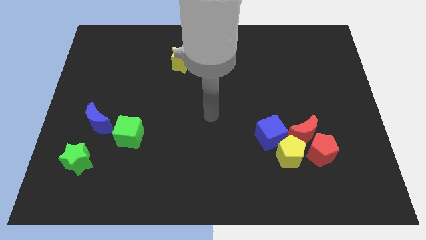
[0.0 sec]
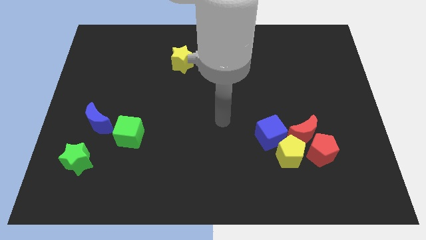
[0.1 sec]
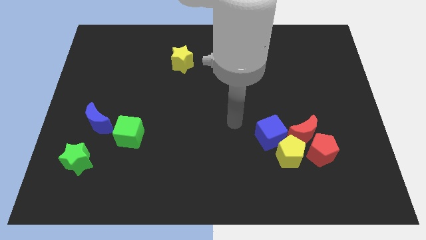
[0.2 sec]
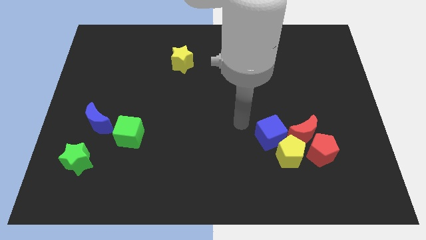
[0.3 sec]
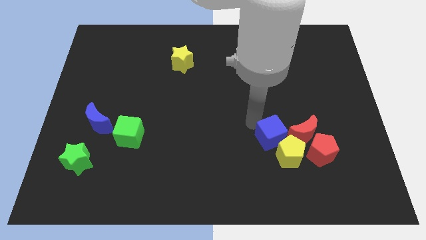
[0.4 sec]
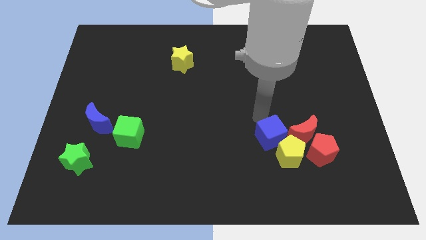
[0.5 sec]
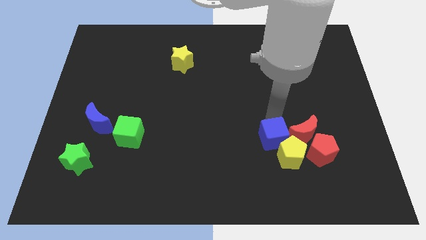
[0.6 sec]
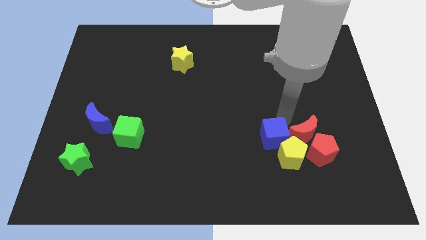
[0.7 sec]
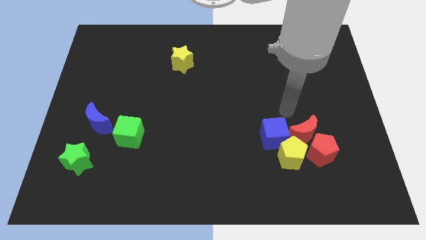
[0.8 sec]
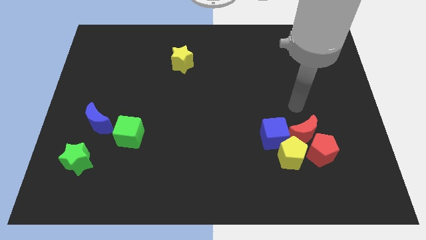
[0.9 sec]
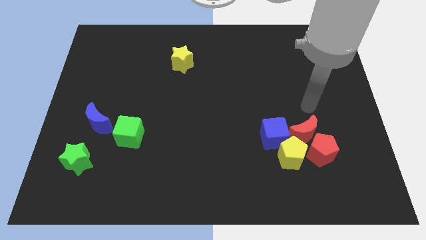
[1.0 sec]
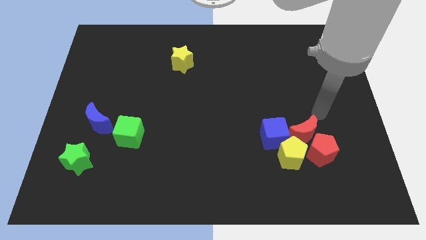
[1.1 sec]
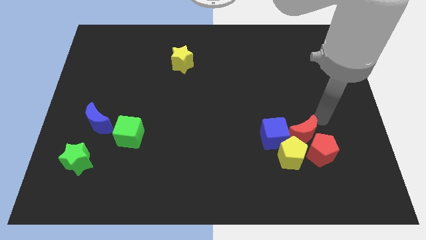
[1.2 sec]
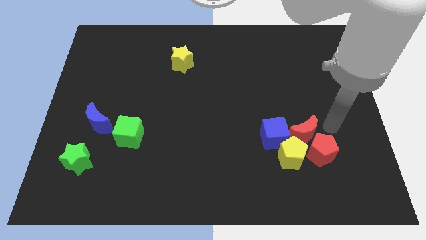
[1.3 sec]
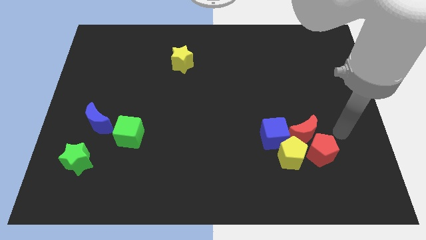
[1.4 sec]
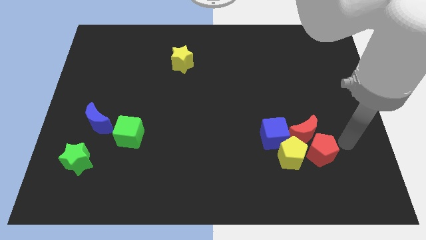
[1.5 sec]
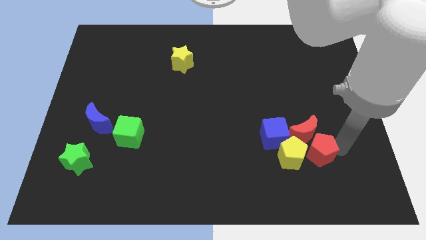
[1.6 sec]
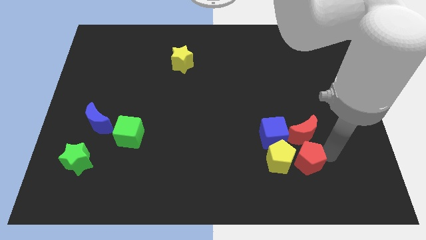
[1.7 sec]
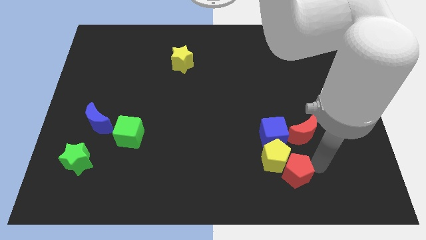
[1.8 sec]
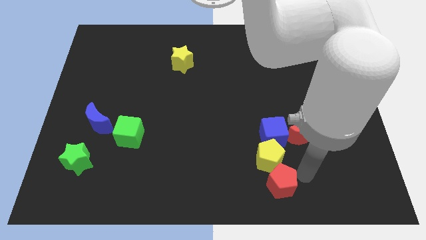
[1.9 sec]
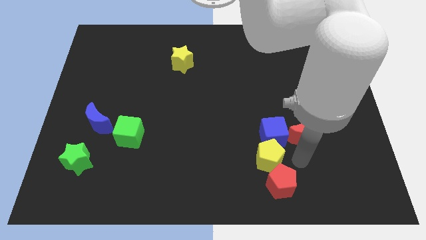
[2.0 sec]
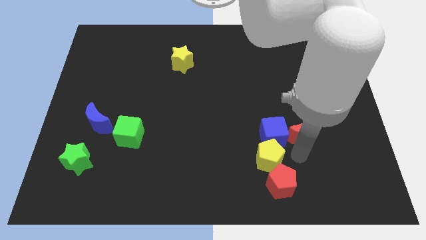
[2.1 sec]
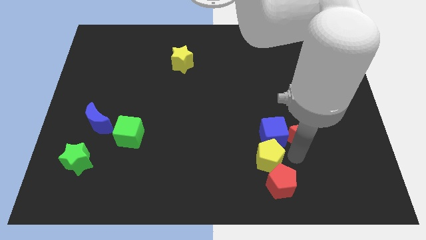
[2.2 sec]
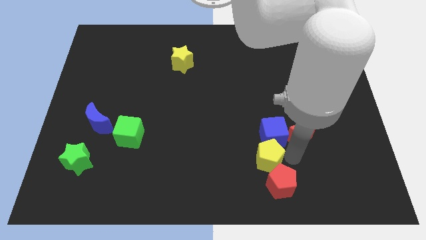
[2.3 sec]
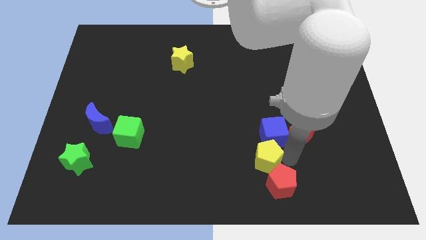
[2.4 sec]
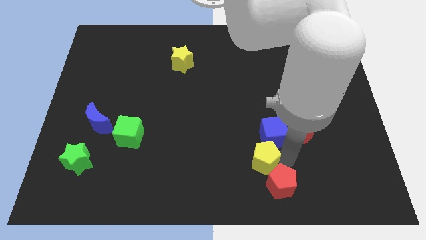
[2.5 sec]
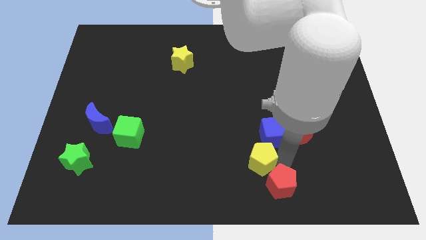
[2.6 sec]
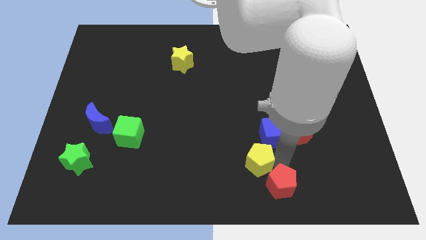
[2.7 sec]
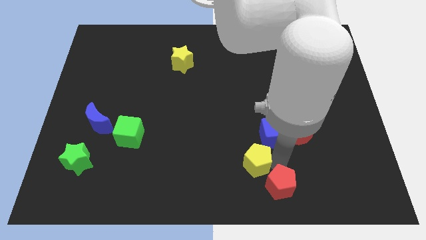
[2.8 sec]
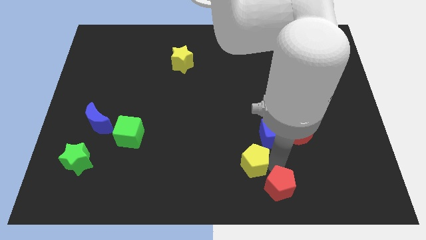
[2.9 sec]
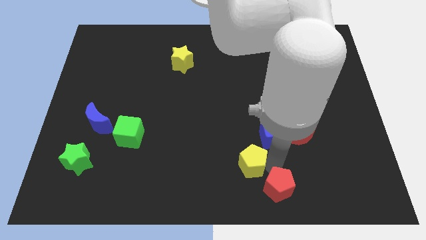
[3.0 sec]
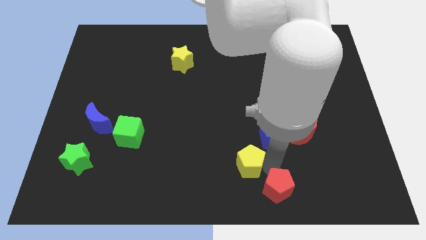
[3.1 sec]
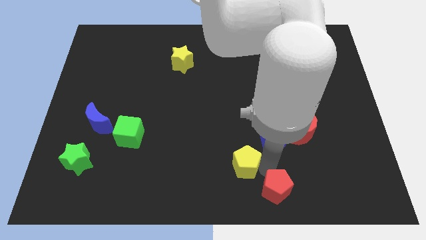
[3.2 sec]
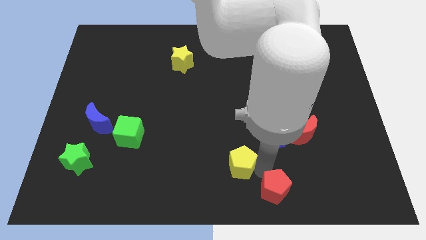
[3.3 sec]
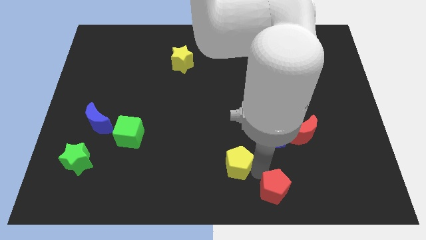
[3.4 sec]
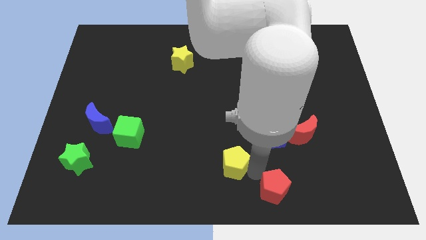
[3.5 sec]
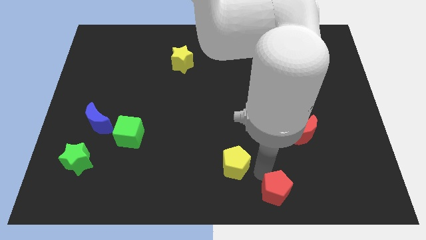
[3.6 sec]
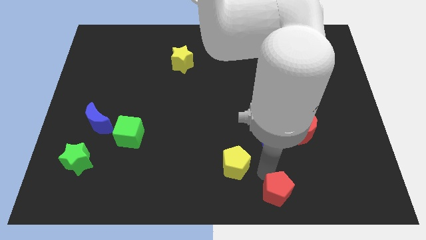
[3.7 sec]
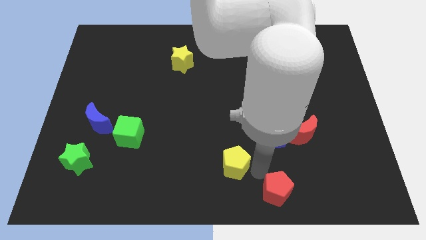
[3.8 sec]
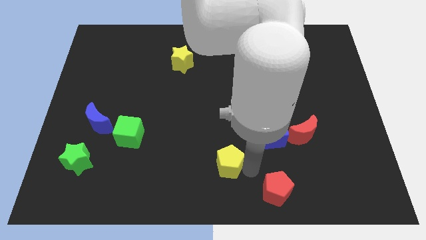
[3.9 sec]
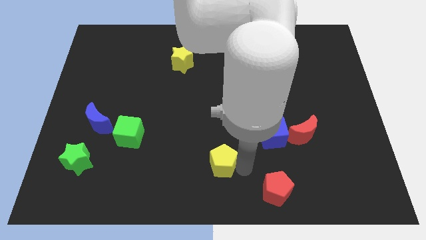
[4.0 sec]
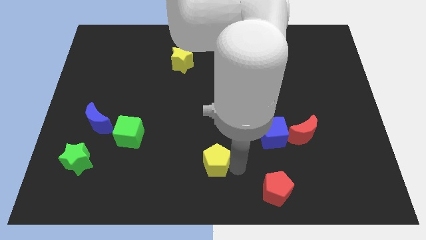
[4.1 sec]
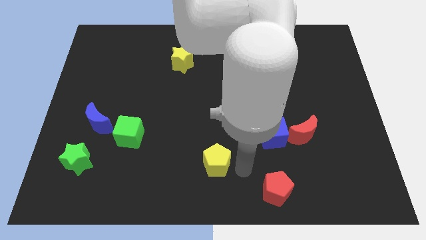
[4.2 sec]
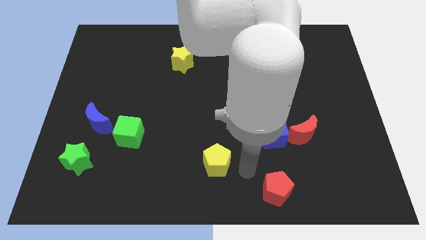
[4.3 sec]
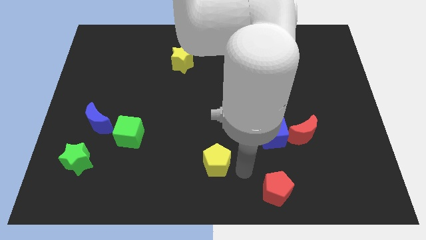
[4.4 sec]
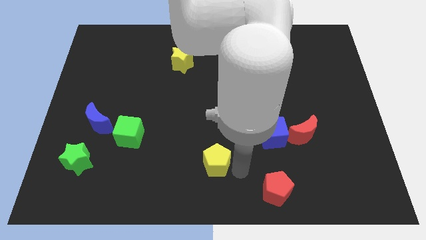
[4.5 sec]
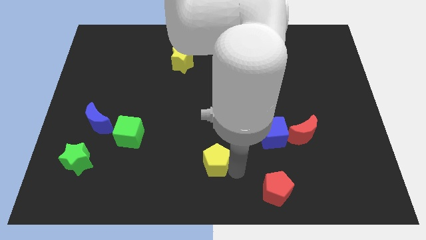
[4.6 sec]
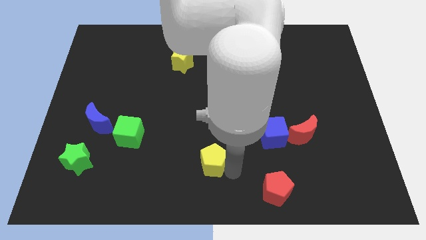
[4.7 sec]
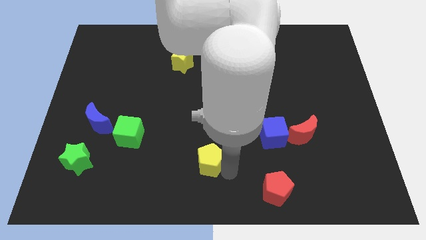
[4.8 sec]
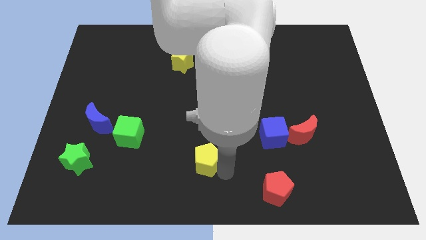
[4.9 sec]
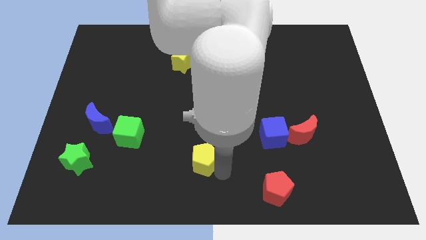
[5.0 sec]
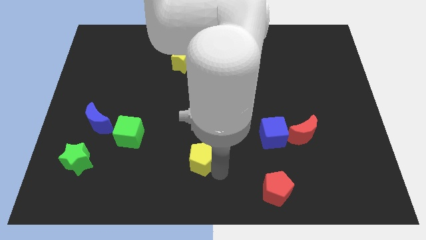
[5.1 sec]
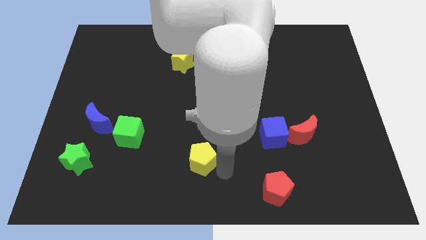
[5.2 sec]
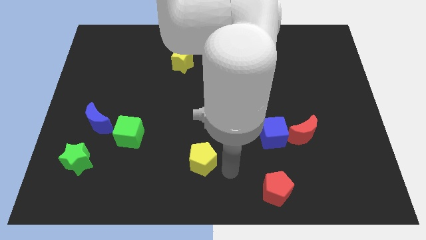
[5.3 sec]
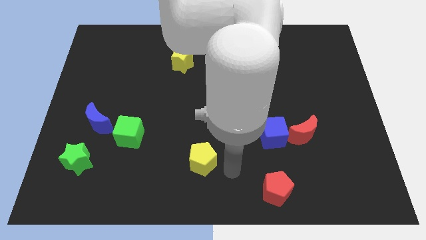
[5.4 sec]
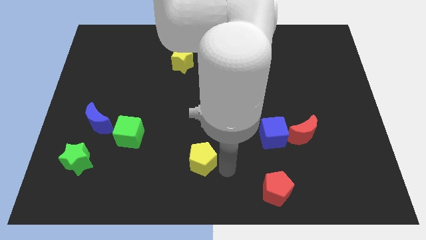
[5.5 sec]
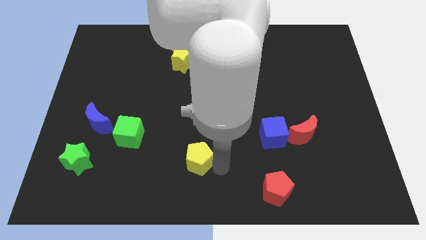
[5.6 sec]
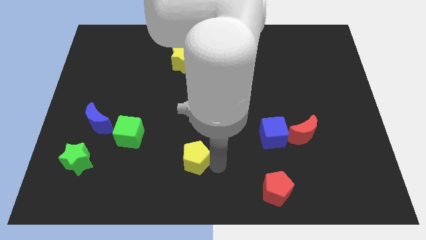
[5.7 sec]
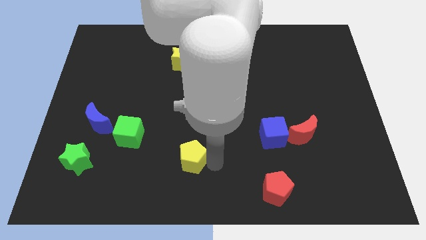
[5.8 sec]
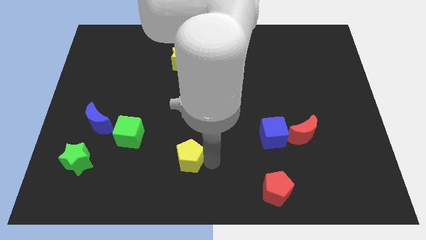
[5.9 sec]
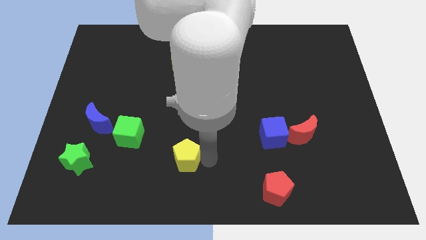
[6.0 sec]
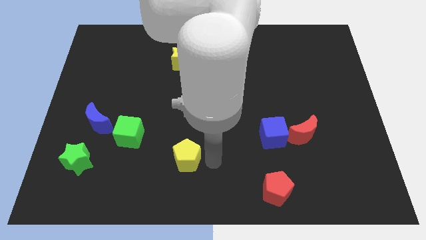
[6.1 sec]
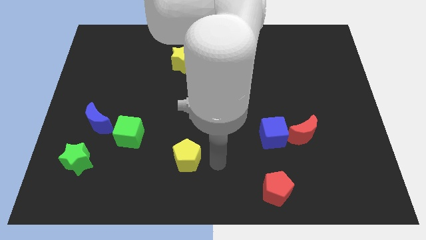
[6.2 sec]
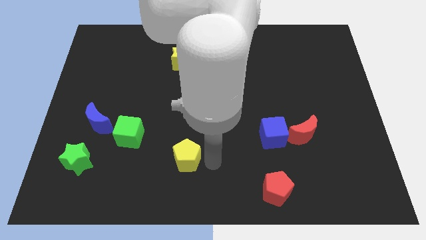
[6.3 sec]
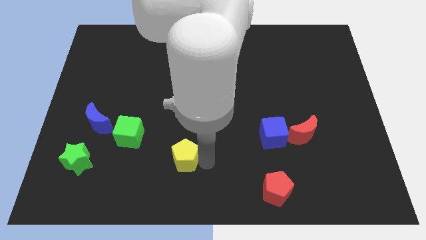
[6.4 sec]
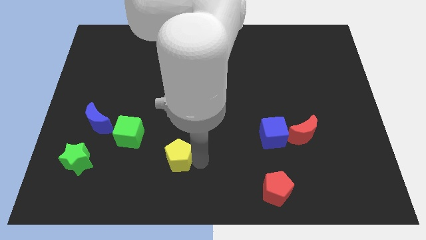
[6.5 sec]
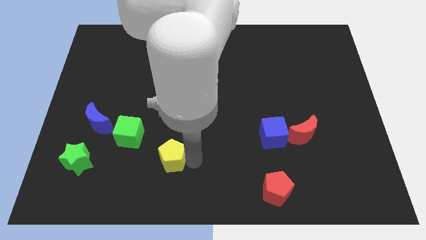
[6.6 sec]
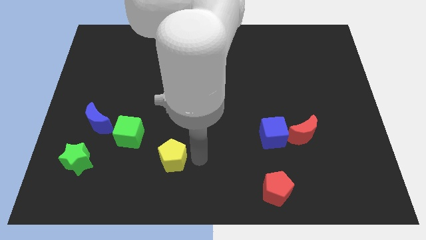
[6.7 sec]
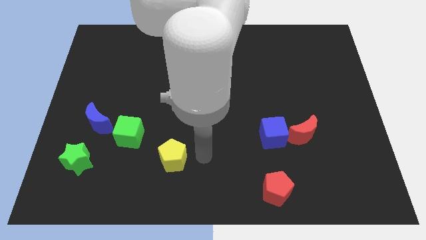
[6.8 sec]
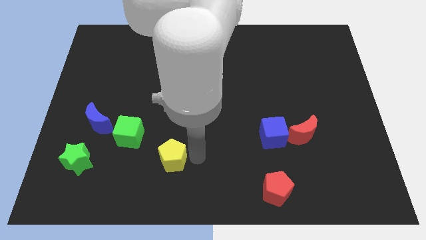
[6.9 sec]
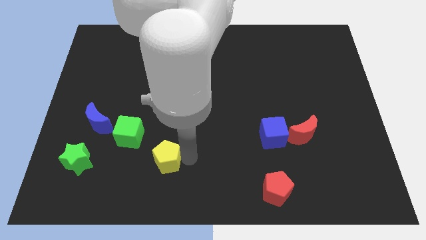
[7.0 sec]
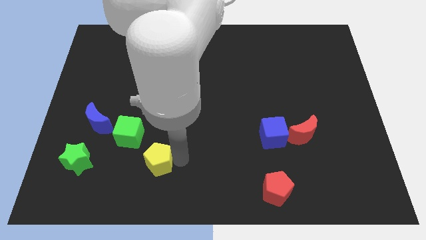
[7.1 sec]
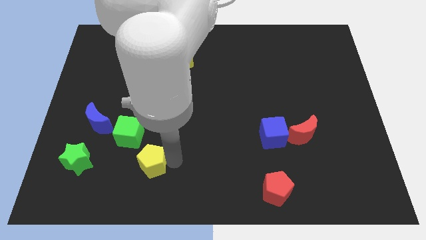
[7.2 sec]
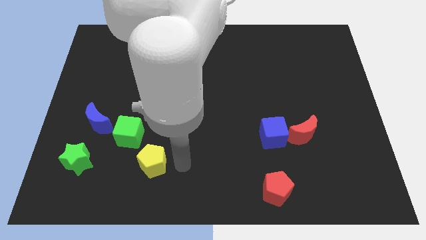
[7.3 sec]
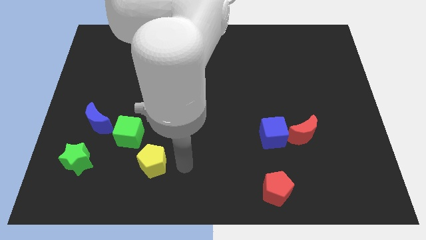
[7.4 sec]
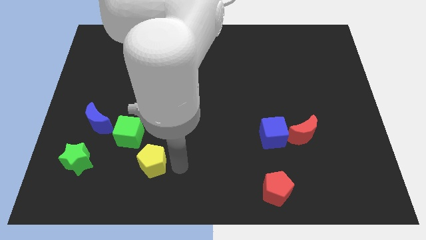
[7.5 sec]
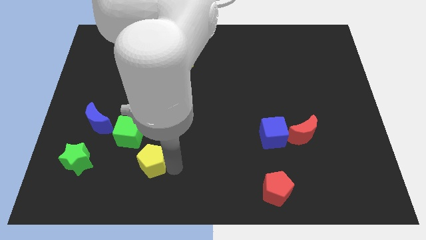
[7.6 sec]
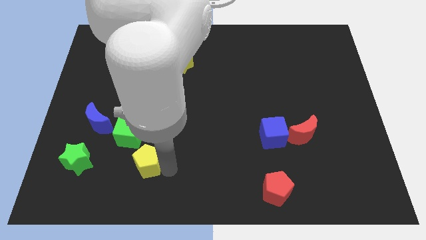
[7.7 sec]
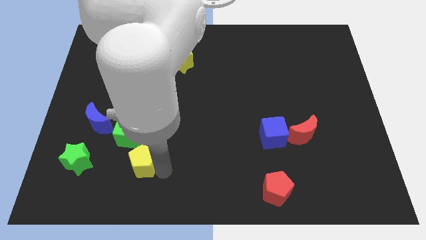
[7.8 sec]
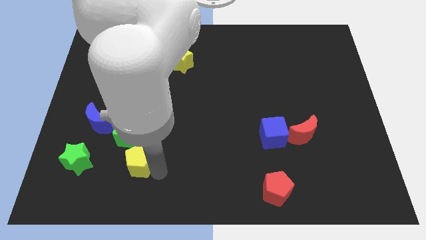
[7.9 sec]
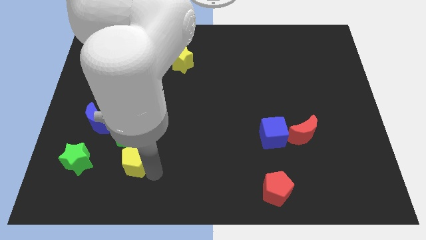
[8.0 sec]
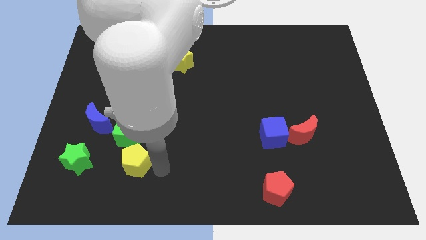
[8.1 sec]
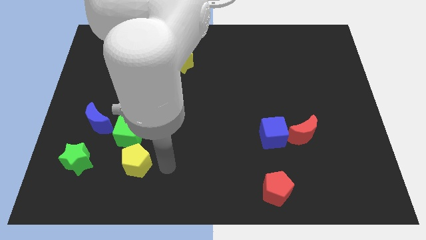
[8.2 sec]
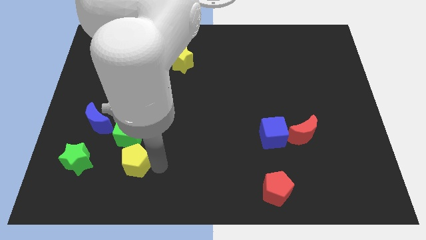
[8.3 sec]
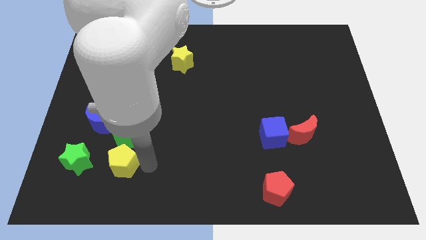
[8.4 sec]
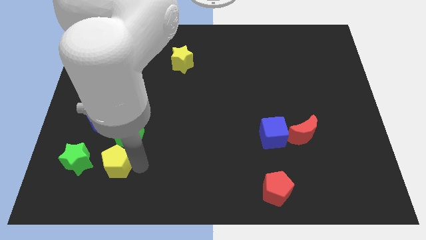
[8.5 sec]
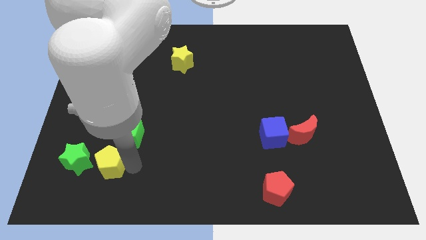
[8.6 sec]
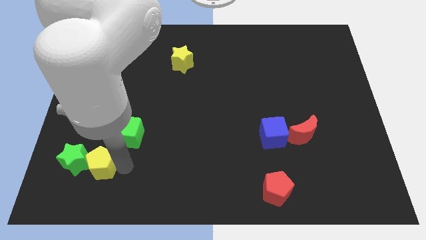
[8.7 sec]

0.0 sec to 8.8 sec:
put the yellow pentagon close to the green star
